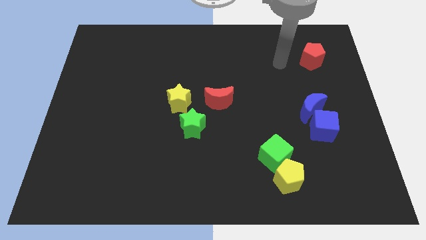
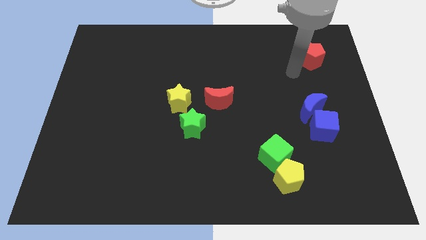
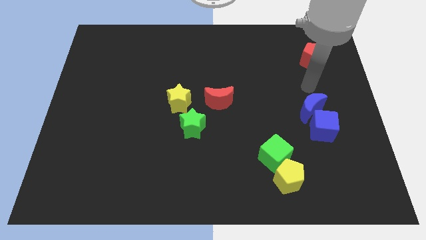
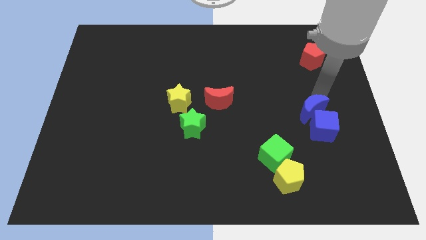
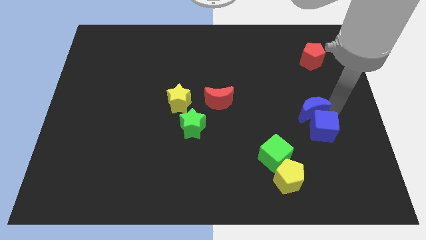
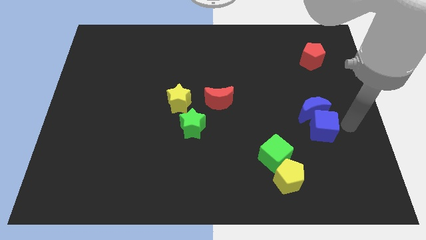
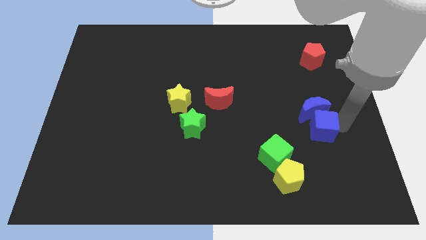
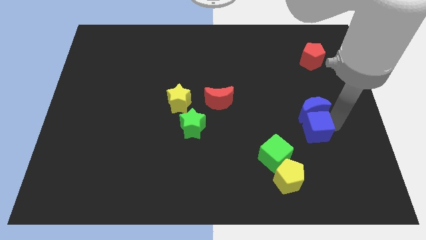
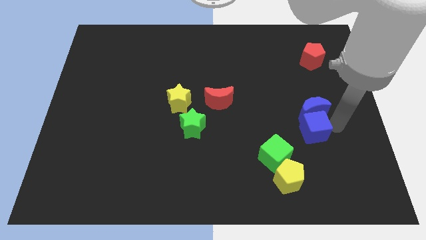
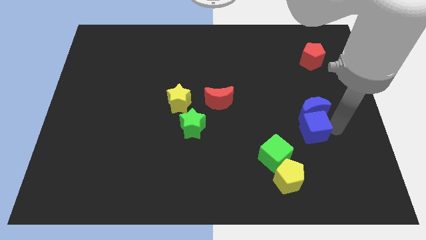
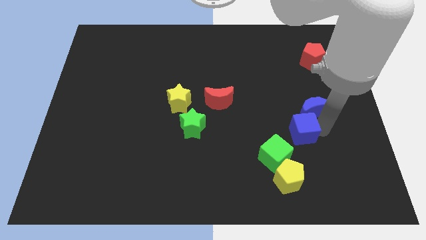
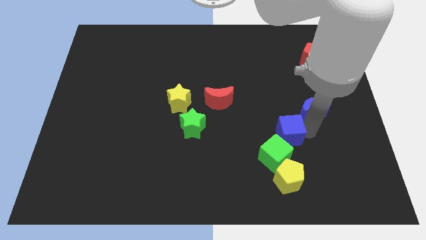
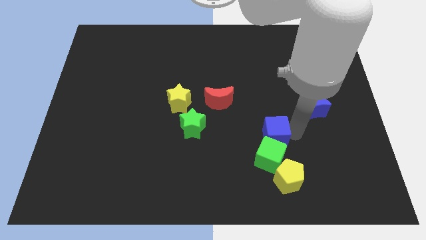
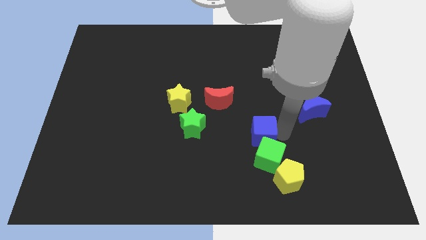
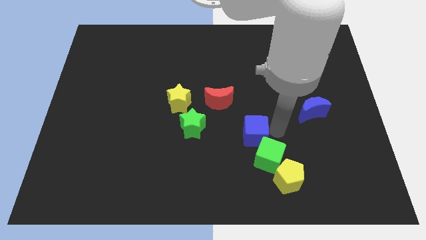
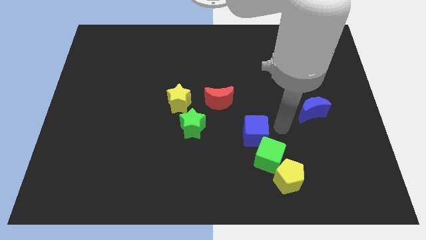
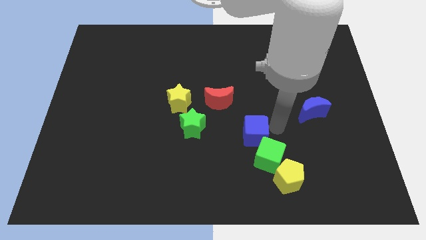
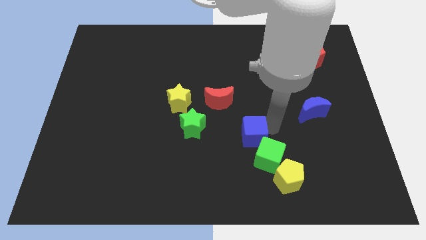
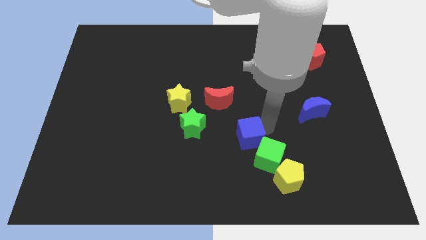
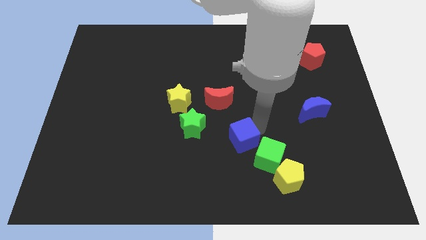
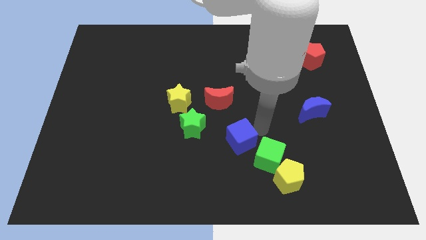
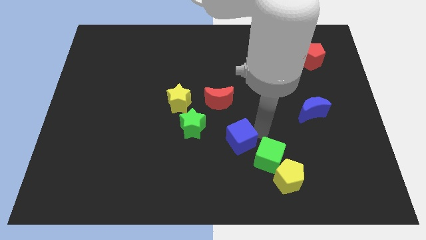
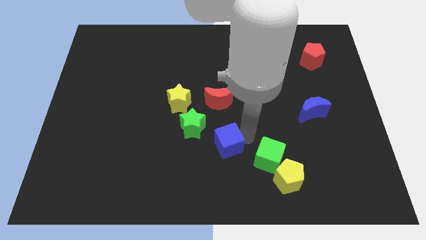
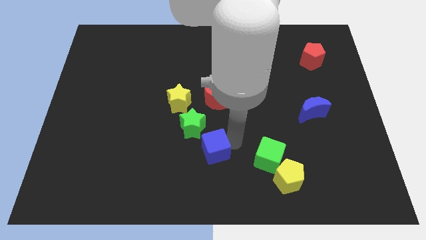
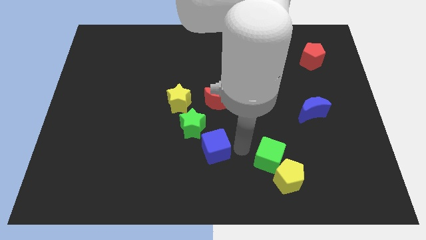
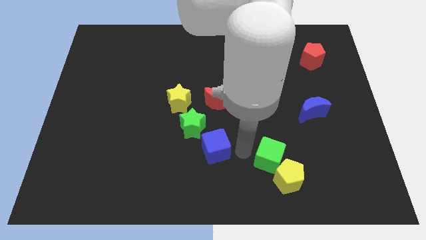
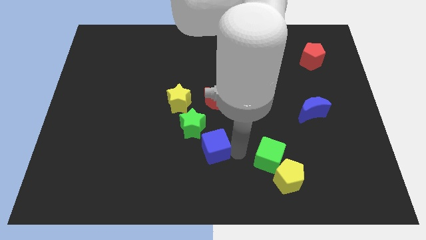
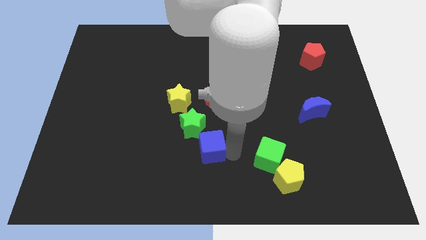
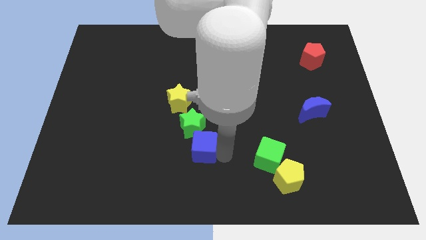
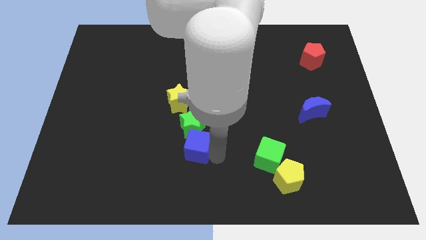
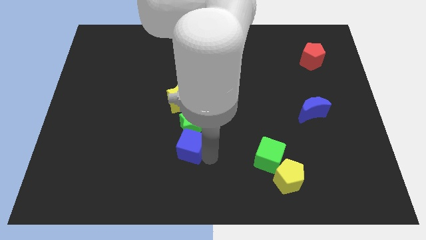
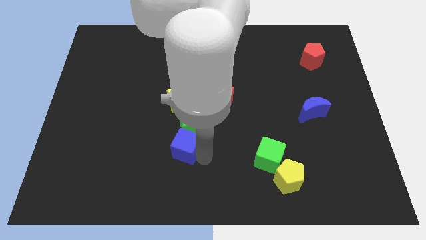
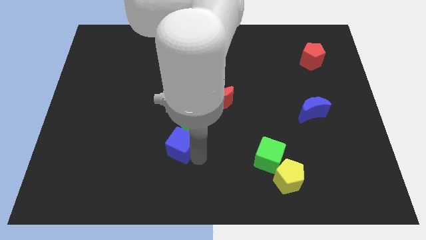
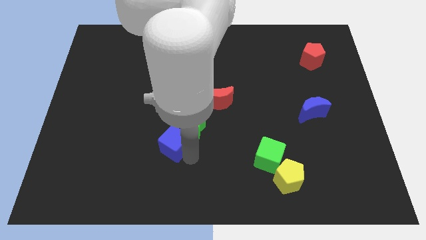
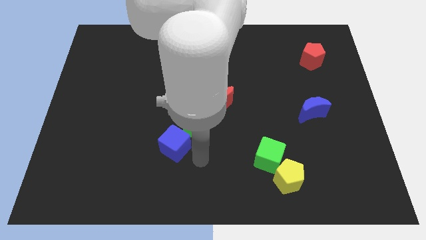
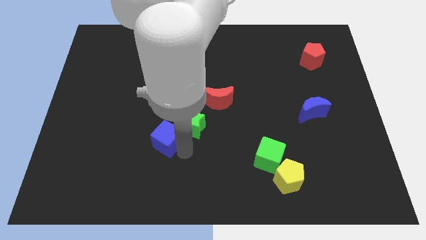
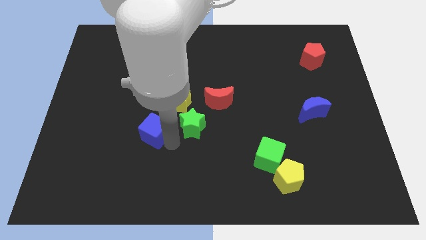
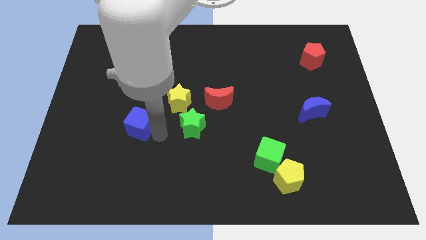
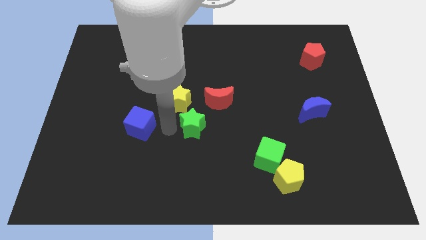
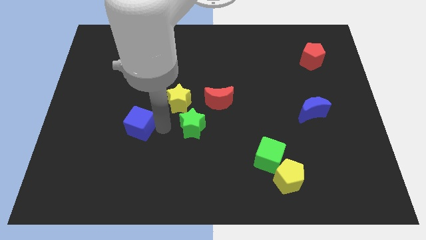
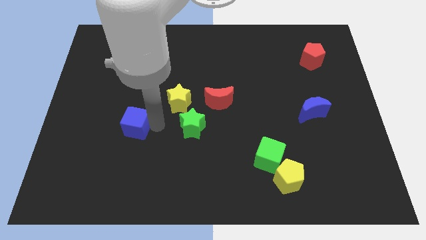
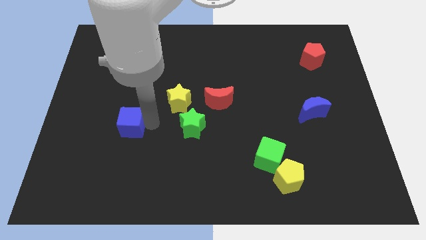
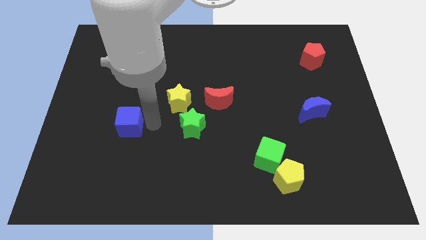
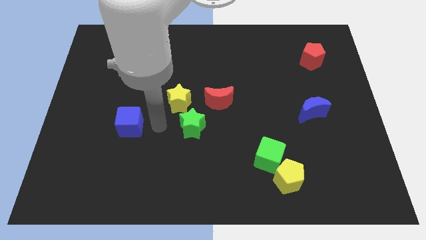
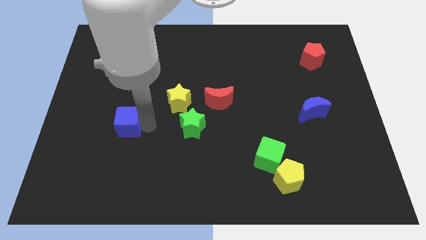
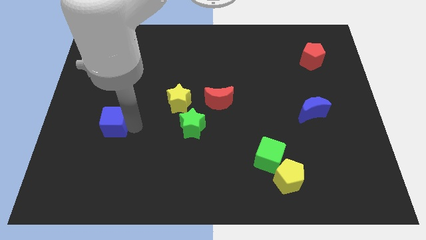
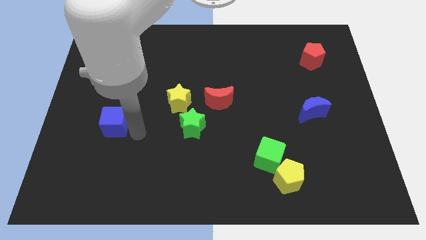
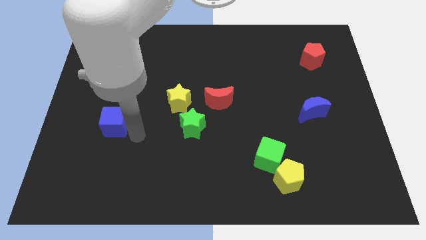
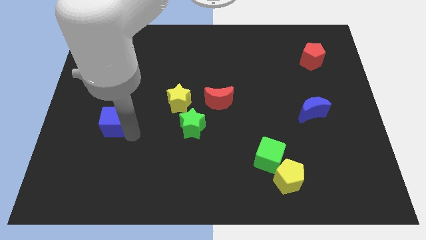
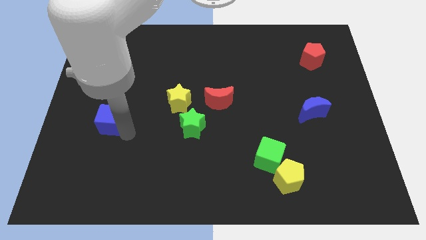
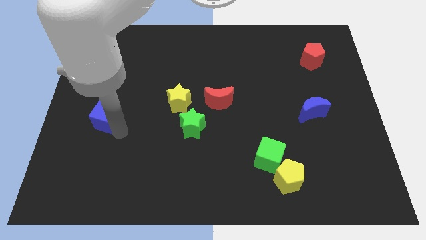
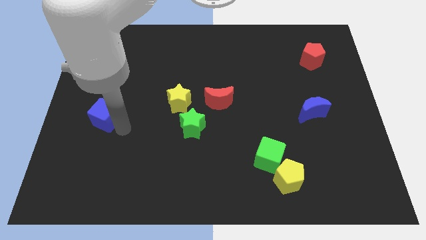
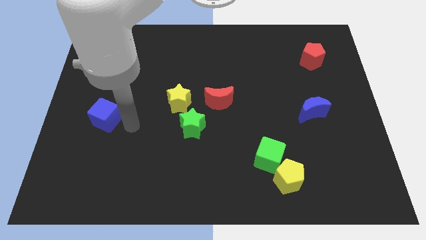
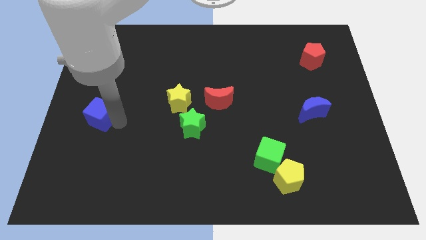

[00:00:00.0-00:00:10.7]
move the blue cube to the center left

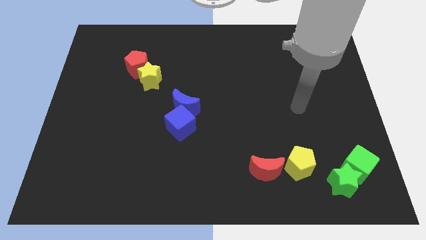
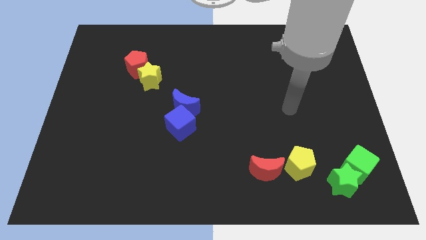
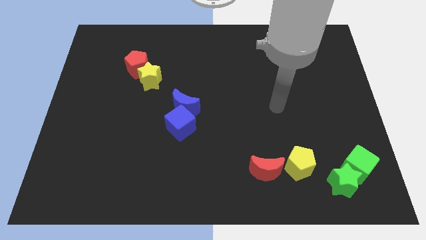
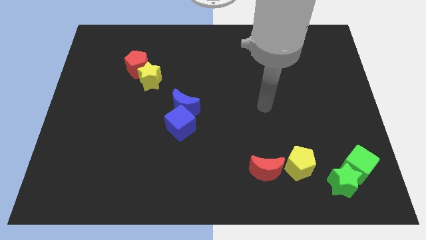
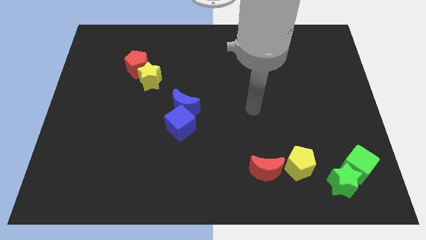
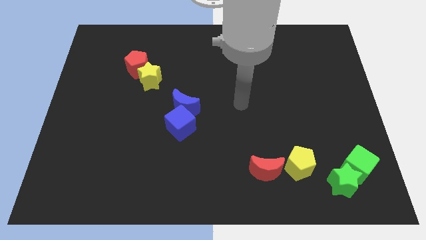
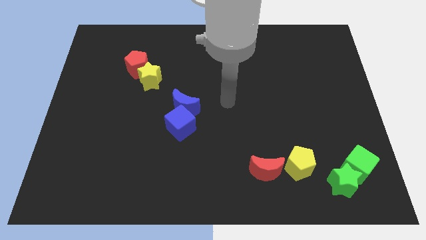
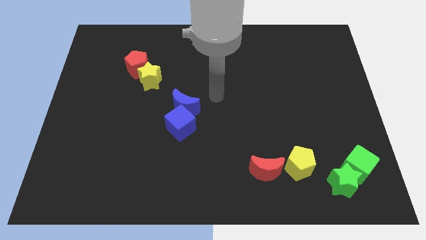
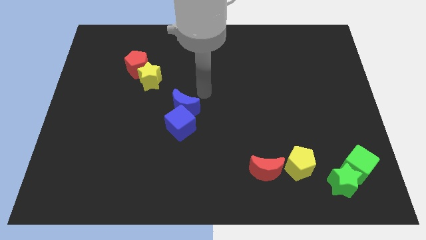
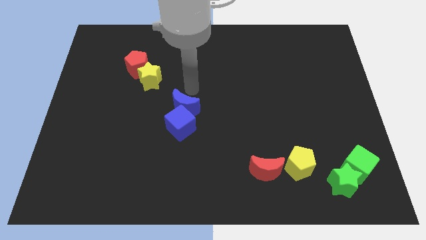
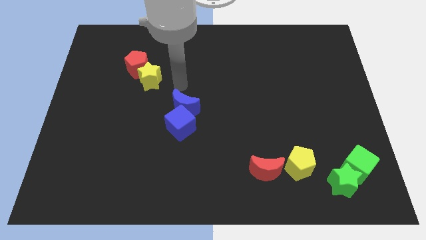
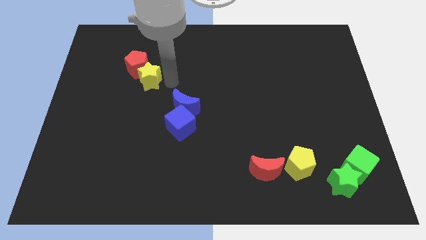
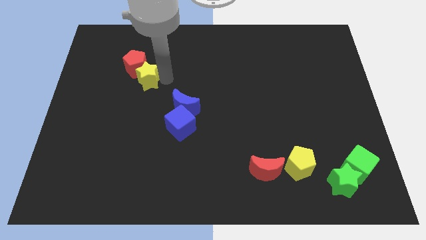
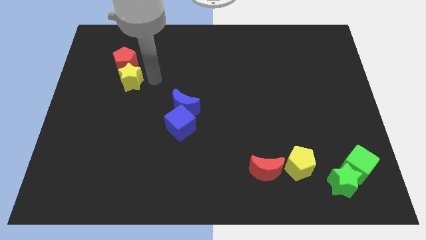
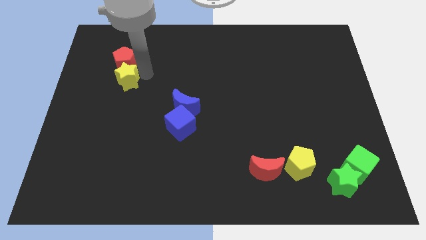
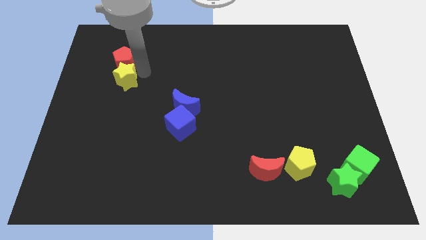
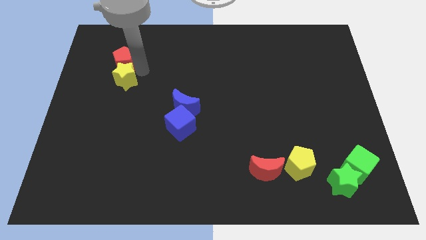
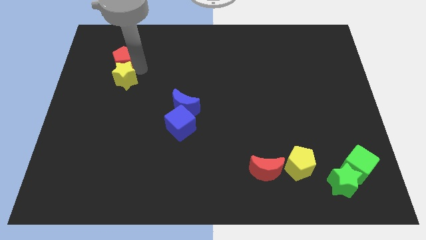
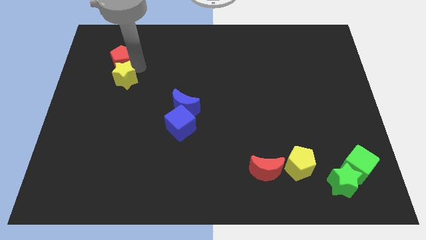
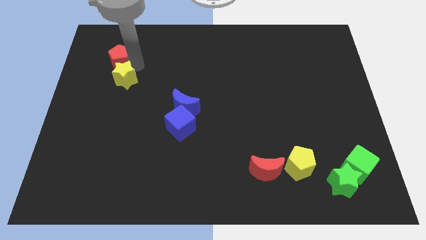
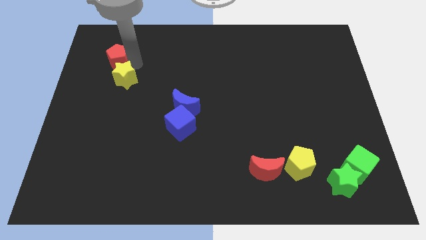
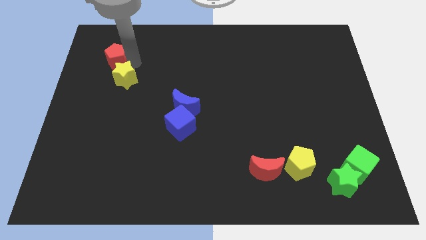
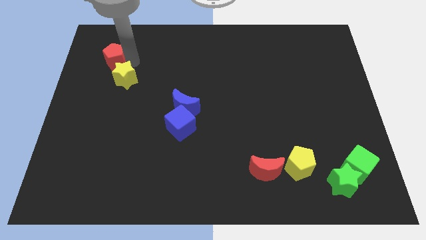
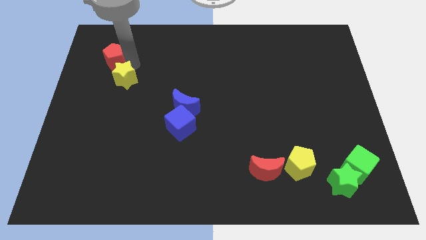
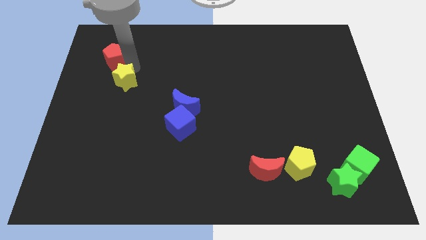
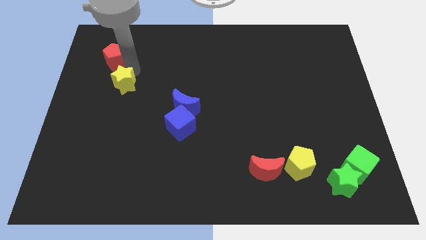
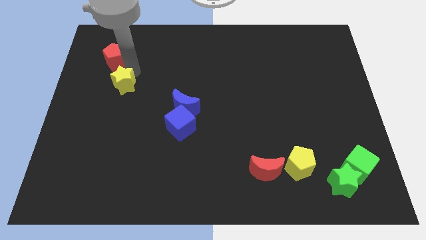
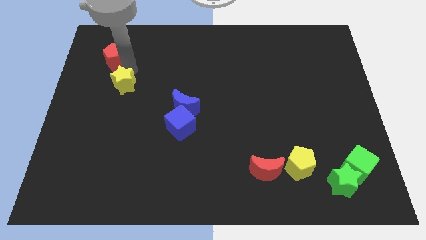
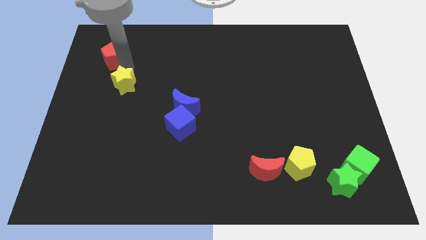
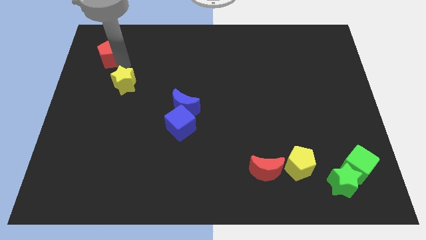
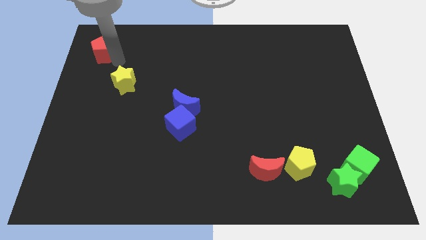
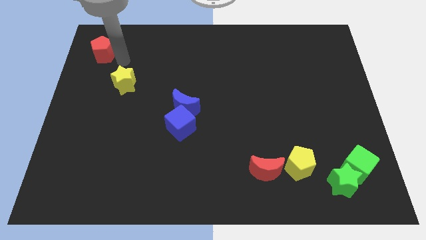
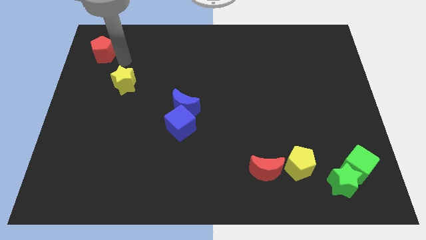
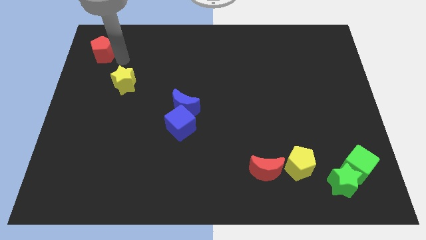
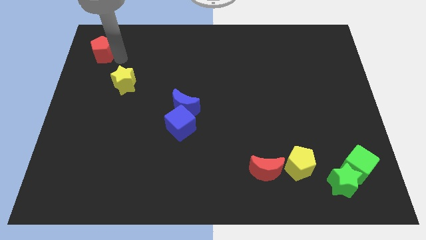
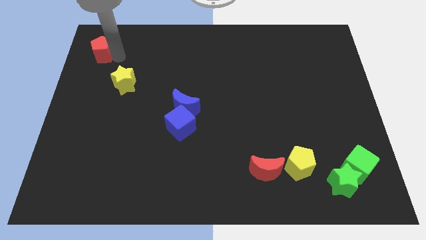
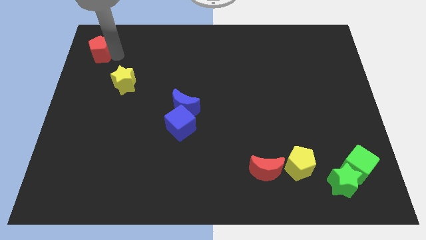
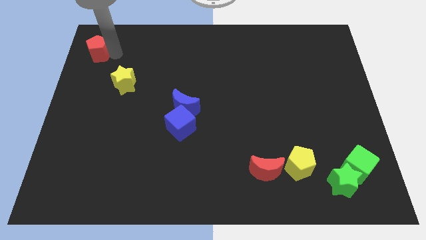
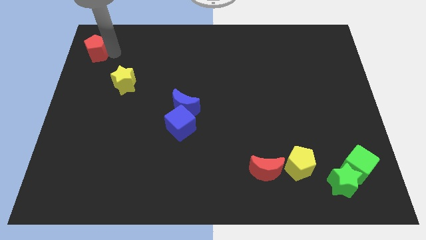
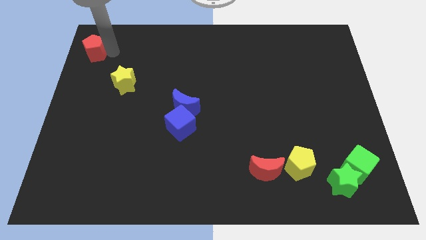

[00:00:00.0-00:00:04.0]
put the red pentagon to the top left corner
